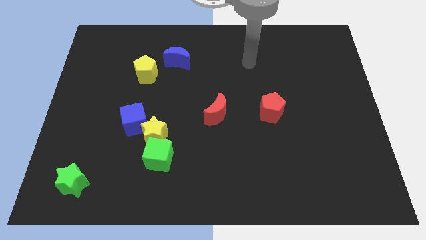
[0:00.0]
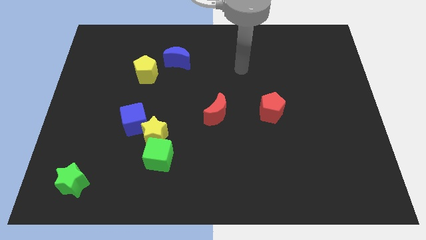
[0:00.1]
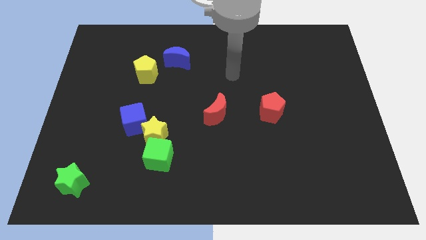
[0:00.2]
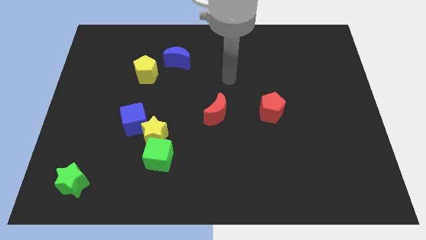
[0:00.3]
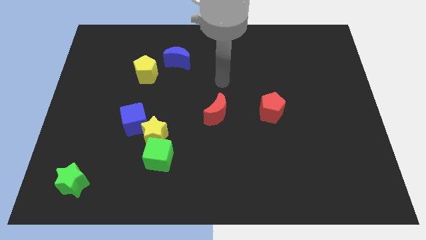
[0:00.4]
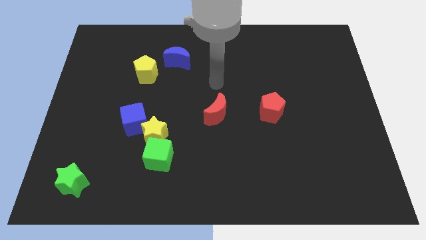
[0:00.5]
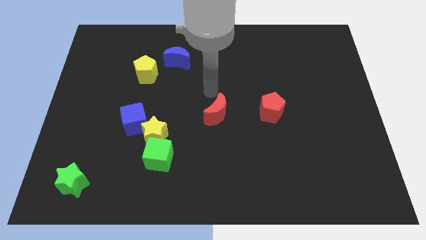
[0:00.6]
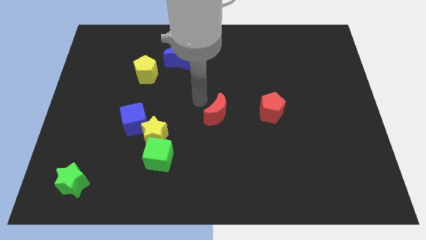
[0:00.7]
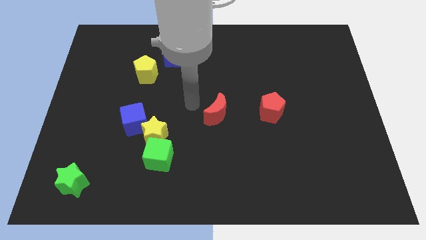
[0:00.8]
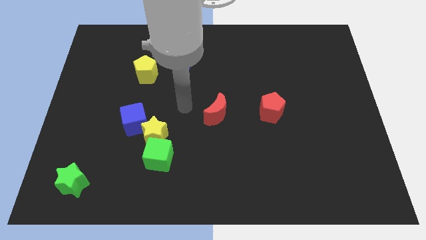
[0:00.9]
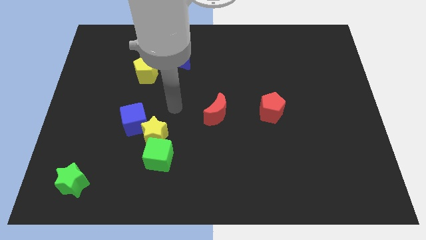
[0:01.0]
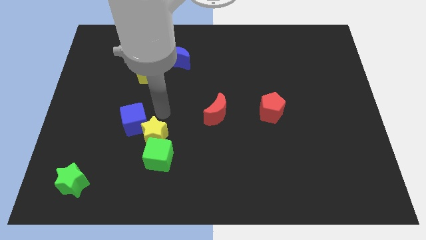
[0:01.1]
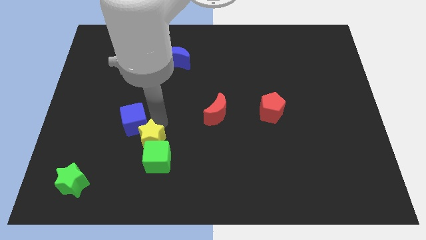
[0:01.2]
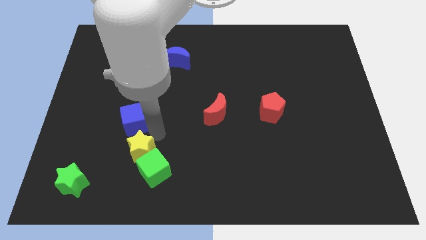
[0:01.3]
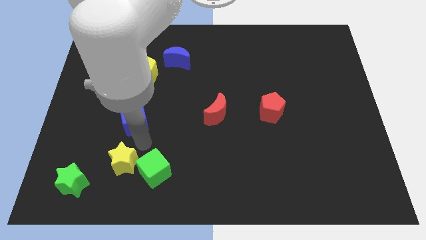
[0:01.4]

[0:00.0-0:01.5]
separate the blue cube from the yellow star

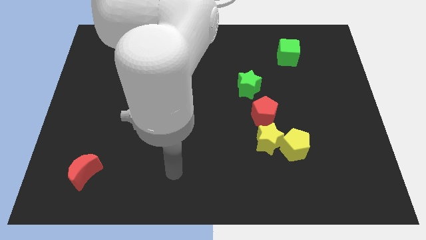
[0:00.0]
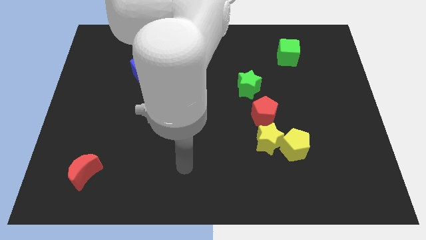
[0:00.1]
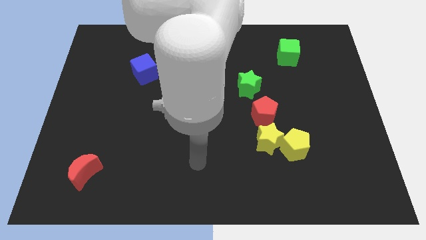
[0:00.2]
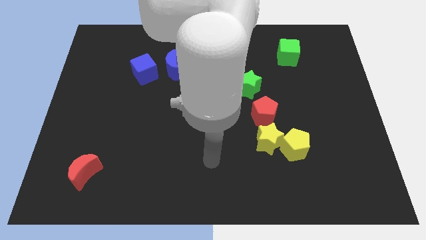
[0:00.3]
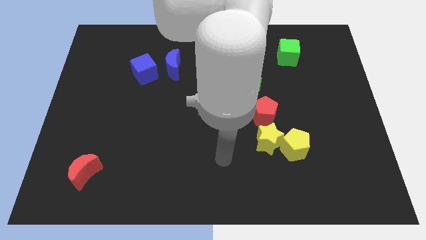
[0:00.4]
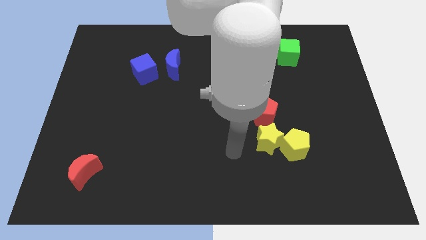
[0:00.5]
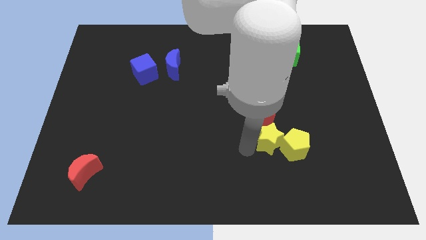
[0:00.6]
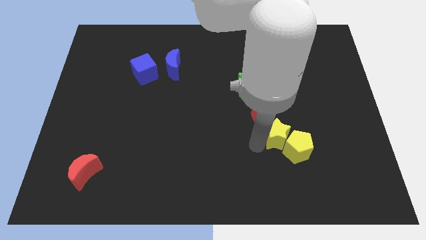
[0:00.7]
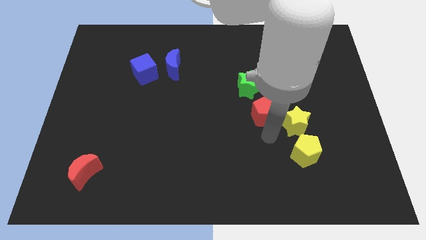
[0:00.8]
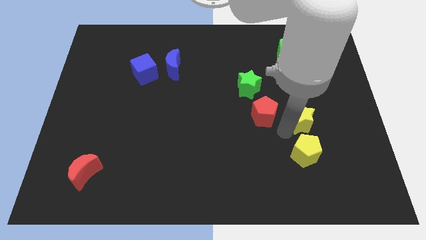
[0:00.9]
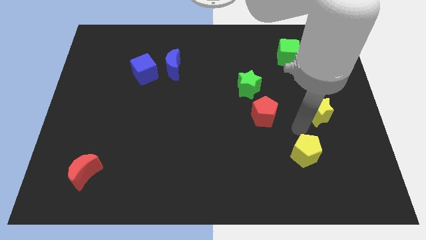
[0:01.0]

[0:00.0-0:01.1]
separate the yellow pentagon from the yellow star

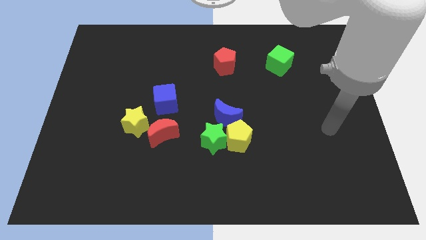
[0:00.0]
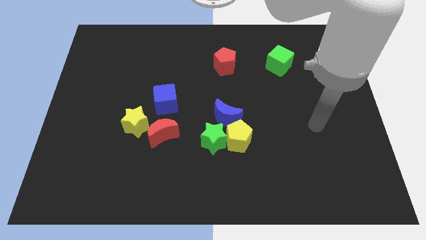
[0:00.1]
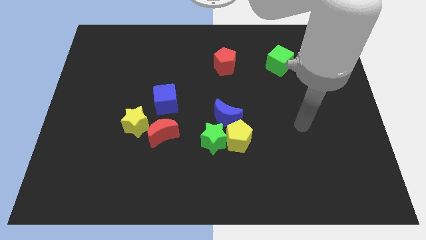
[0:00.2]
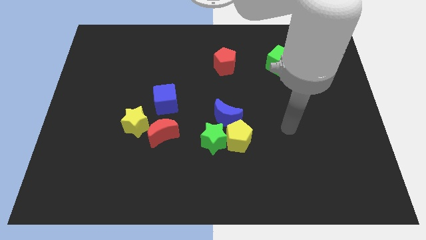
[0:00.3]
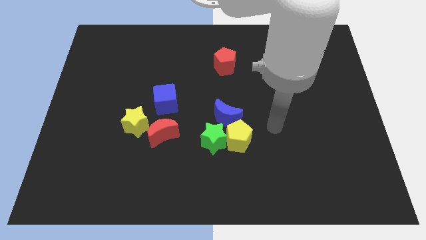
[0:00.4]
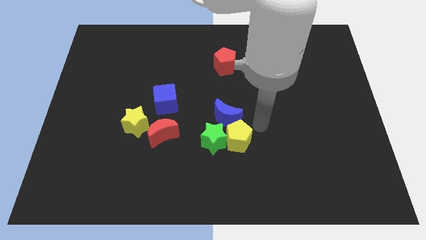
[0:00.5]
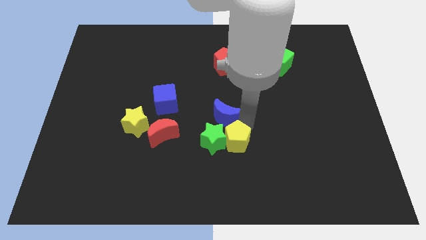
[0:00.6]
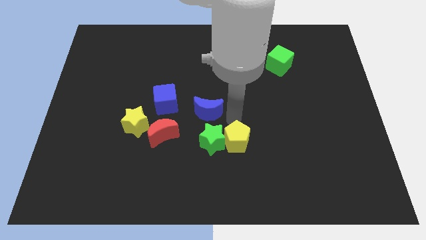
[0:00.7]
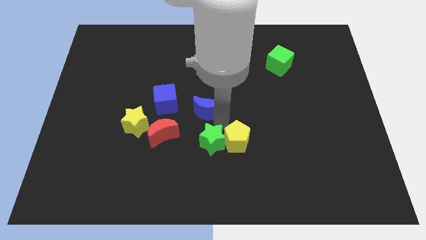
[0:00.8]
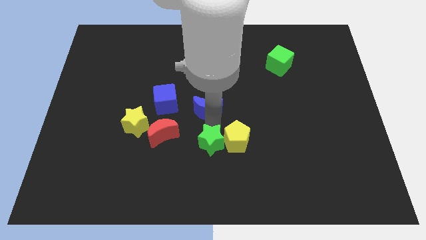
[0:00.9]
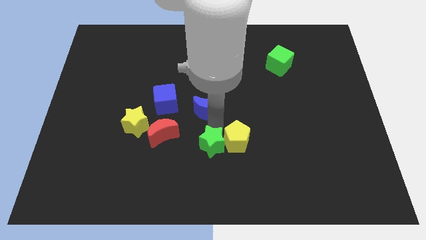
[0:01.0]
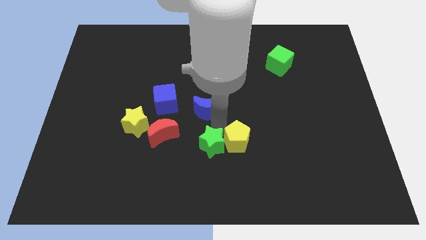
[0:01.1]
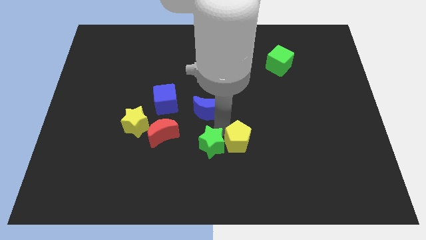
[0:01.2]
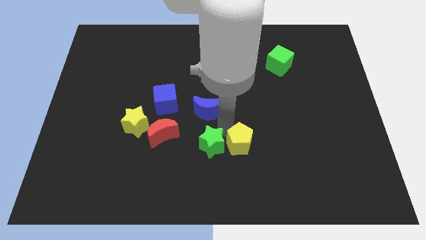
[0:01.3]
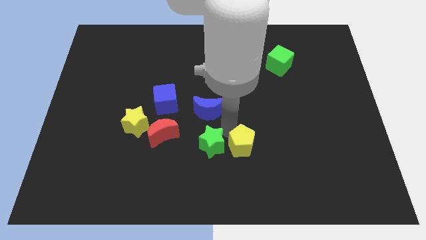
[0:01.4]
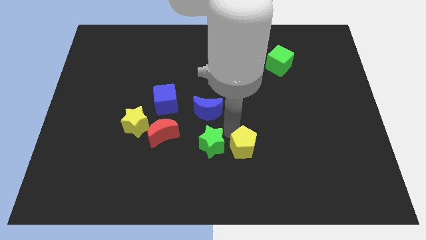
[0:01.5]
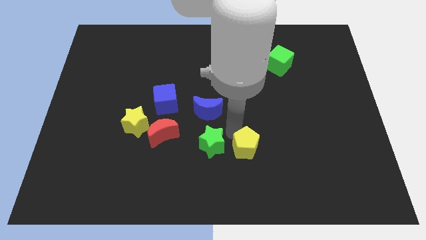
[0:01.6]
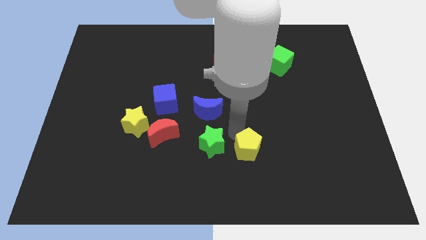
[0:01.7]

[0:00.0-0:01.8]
separate the yellow pentagon from the green star and blue moon

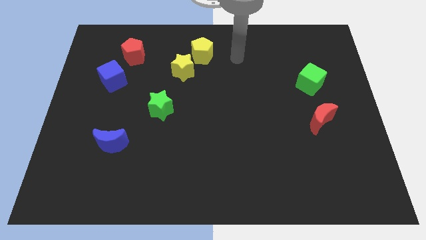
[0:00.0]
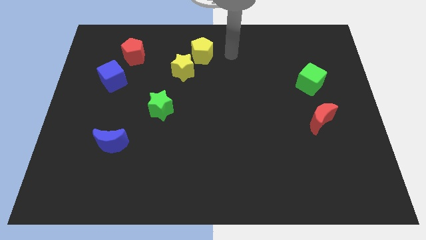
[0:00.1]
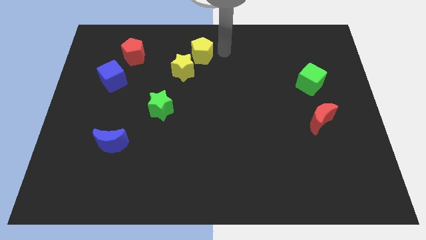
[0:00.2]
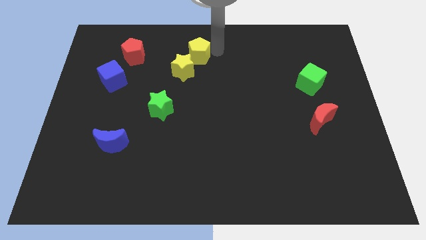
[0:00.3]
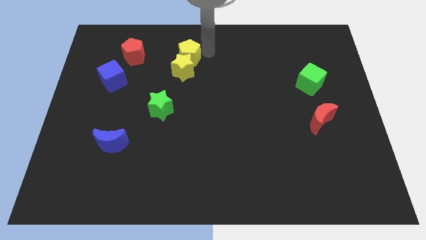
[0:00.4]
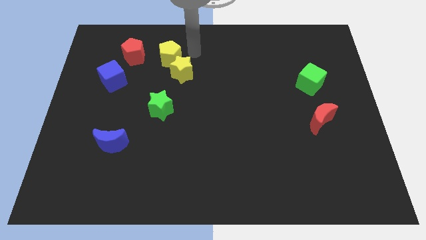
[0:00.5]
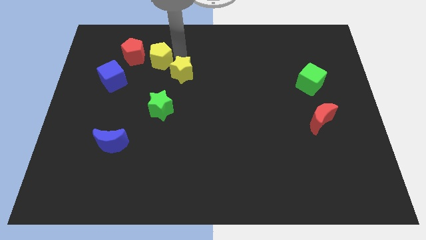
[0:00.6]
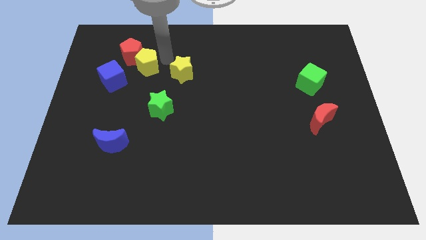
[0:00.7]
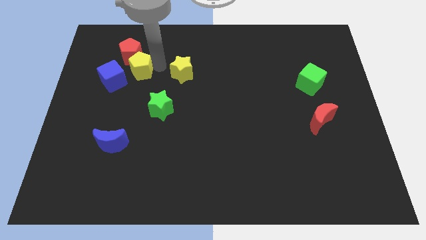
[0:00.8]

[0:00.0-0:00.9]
move the yellow star away from the yellow pentagon

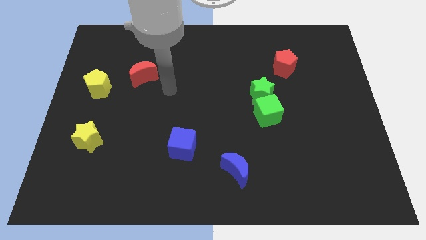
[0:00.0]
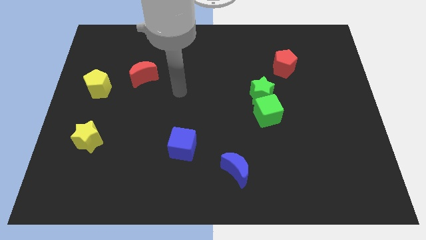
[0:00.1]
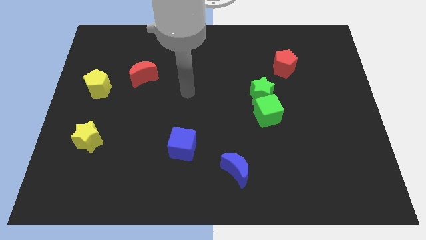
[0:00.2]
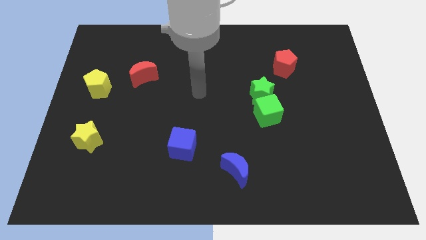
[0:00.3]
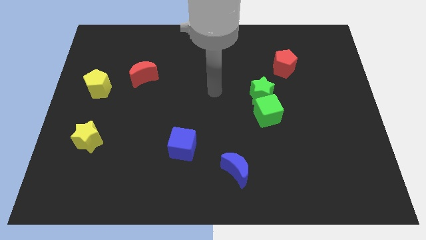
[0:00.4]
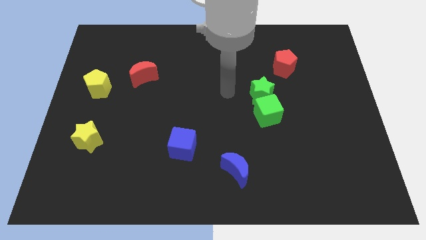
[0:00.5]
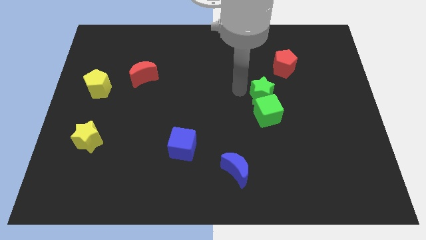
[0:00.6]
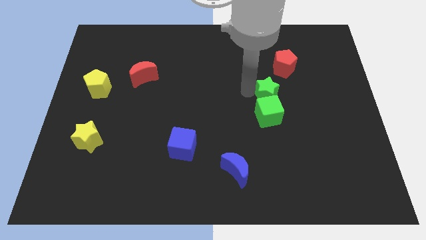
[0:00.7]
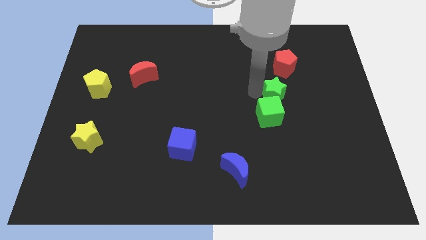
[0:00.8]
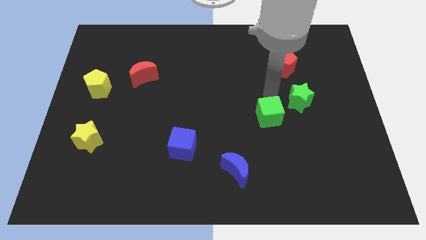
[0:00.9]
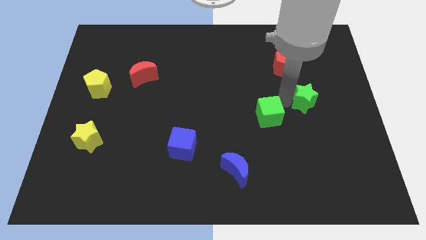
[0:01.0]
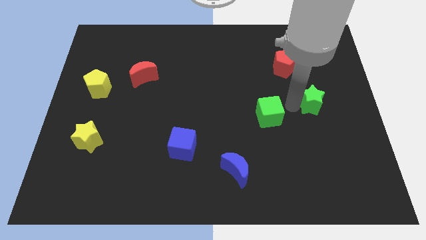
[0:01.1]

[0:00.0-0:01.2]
pull the green cube apart from the green star

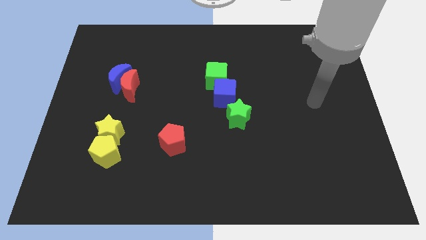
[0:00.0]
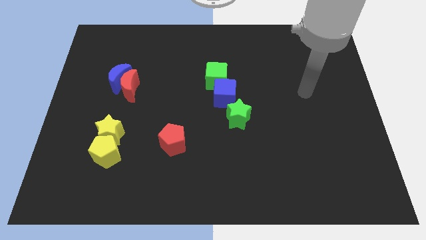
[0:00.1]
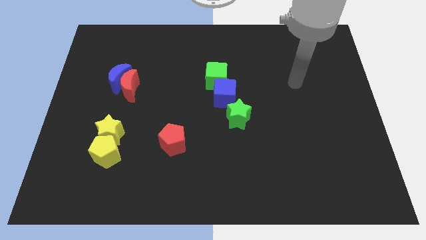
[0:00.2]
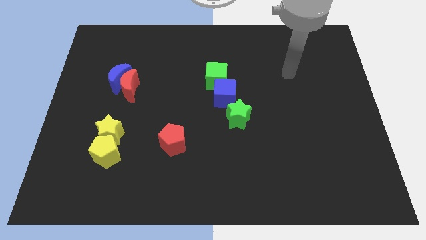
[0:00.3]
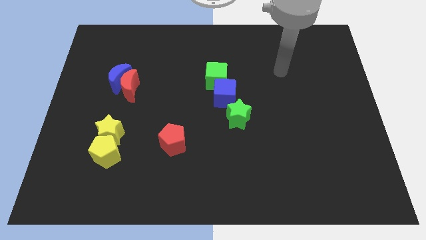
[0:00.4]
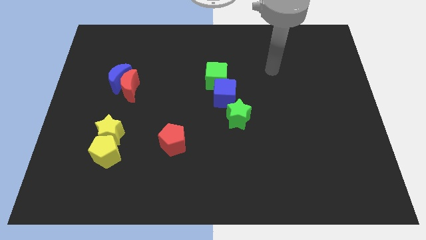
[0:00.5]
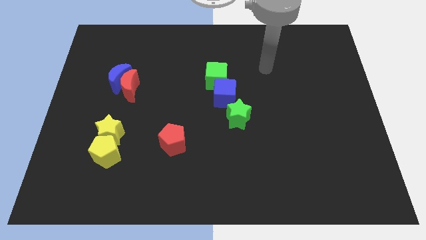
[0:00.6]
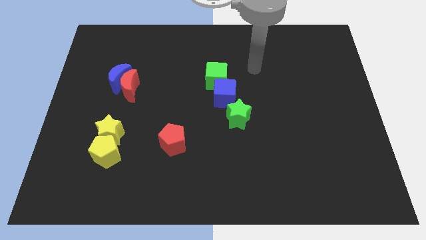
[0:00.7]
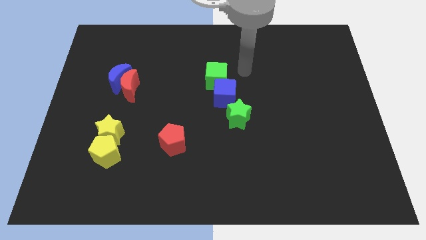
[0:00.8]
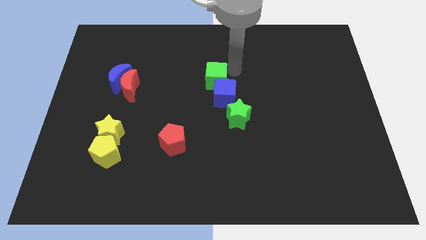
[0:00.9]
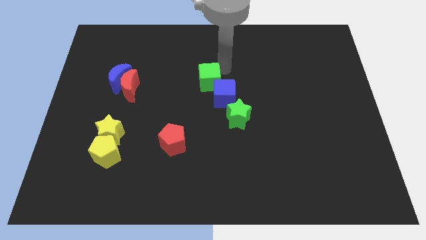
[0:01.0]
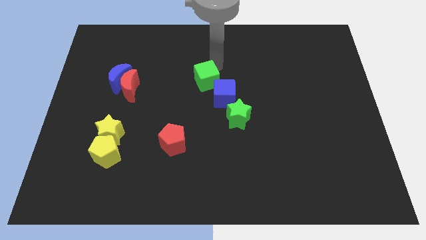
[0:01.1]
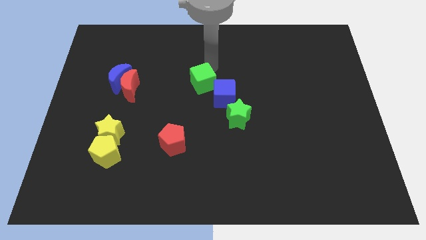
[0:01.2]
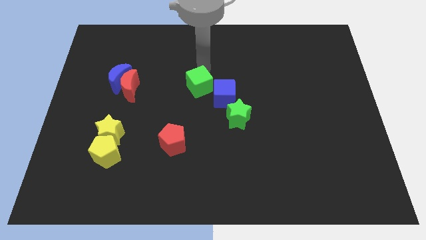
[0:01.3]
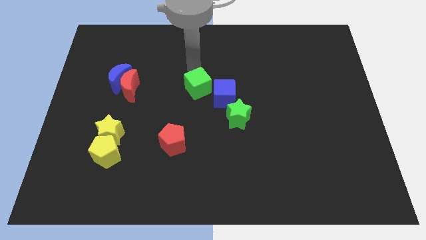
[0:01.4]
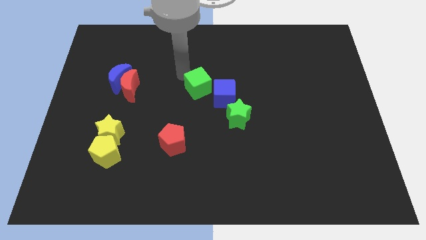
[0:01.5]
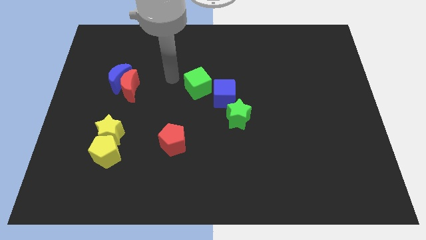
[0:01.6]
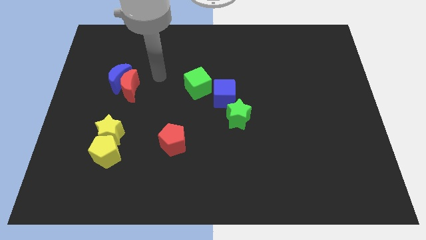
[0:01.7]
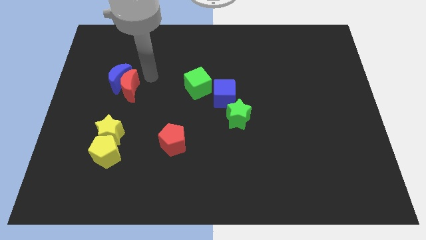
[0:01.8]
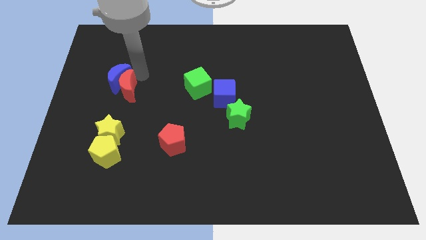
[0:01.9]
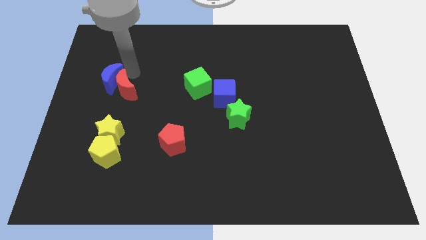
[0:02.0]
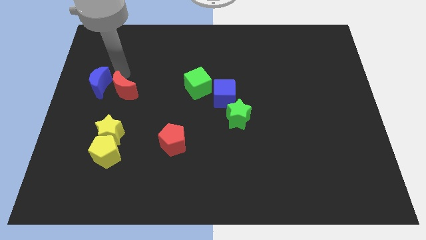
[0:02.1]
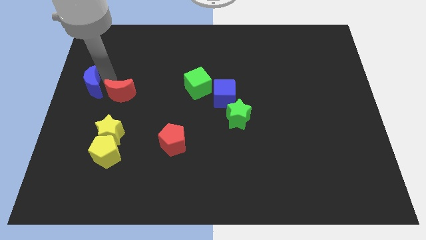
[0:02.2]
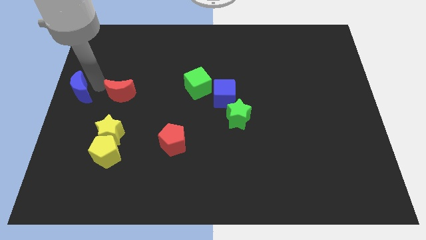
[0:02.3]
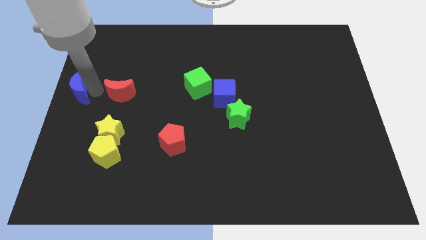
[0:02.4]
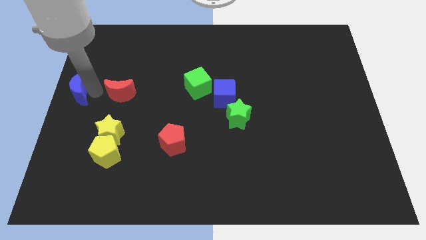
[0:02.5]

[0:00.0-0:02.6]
separate the red moon from the blue moon

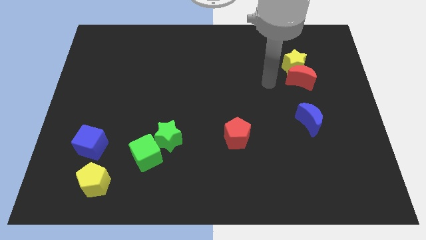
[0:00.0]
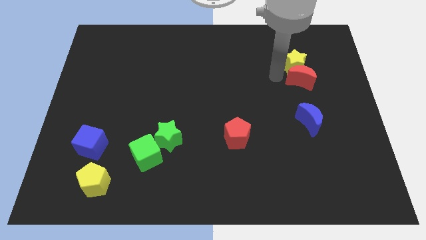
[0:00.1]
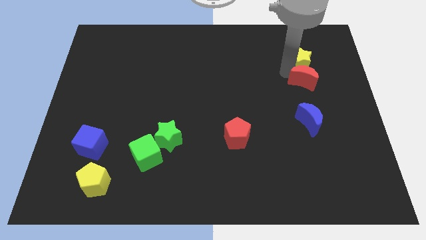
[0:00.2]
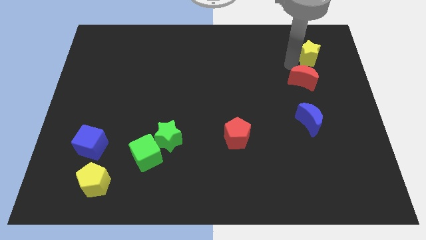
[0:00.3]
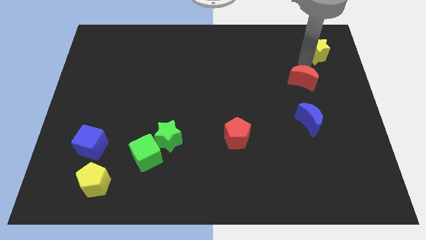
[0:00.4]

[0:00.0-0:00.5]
move the red moon away from the yellow star
